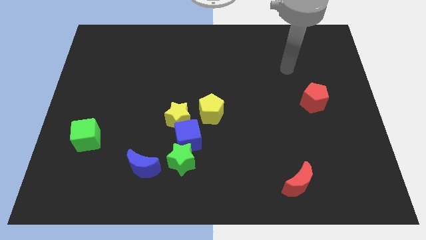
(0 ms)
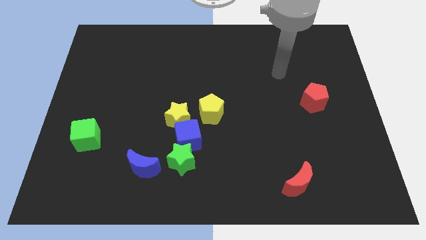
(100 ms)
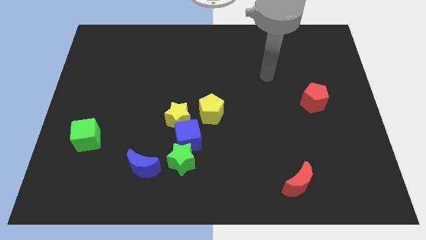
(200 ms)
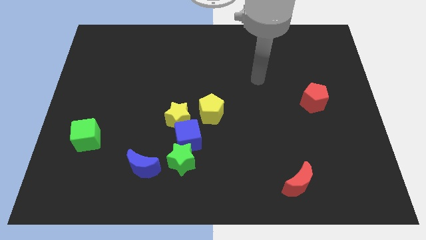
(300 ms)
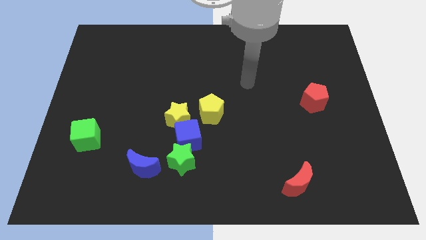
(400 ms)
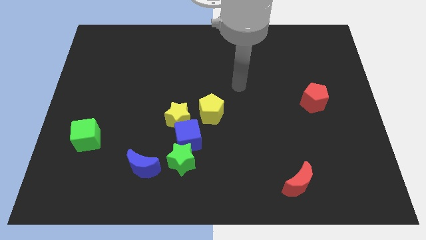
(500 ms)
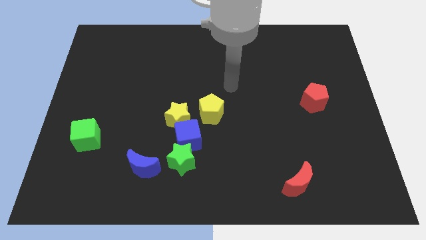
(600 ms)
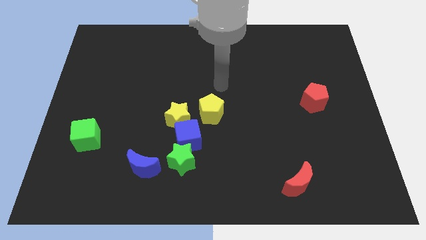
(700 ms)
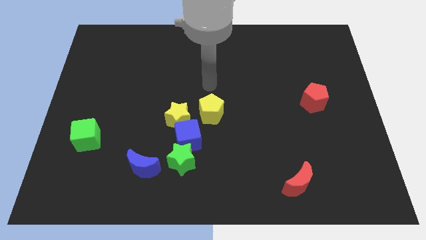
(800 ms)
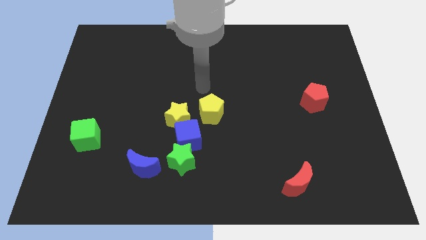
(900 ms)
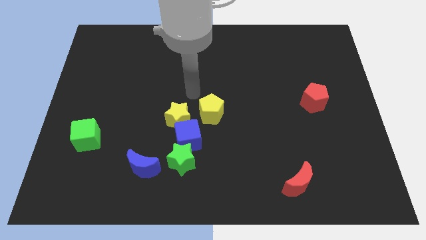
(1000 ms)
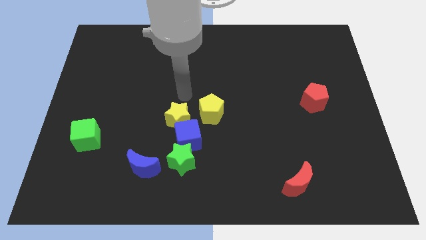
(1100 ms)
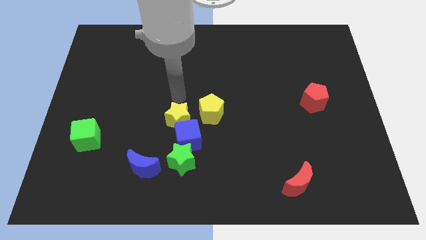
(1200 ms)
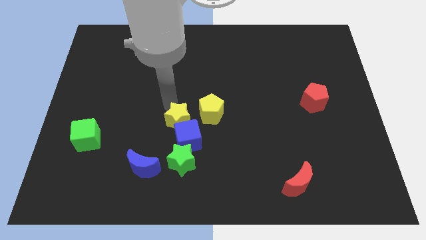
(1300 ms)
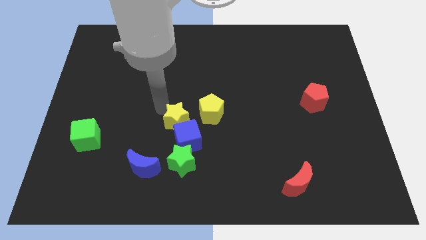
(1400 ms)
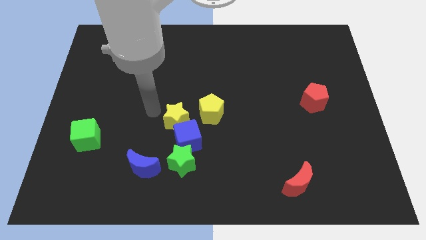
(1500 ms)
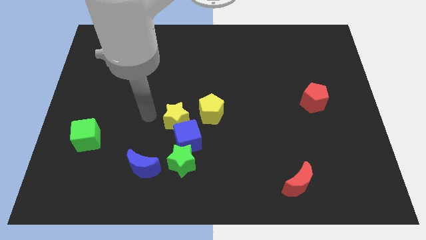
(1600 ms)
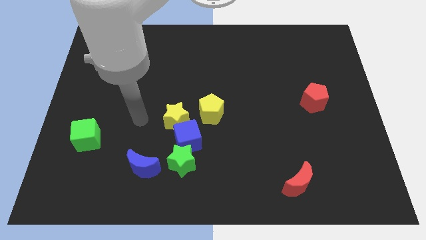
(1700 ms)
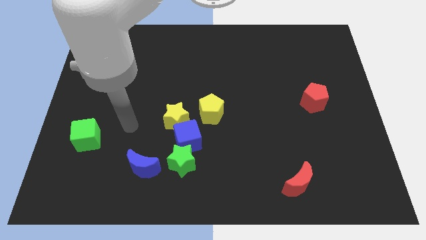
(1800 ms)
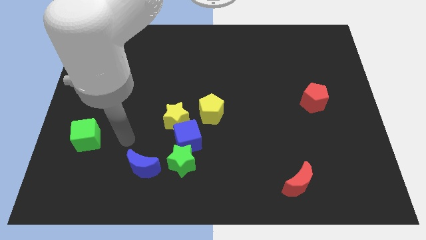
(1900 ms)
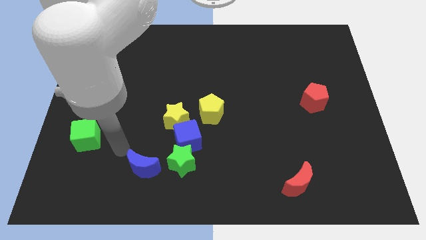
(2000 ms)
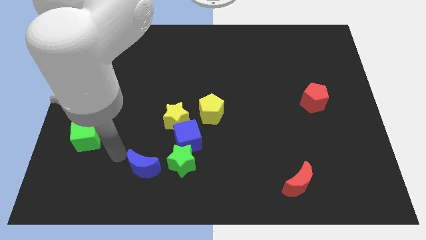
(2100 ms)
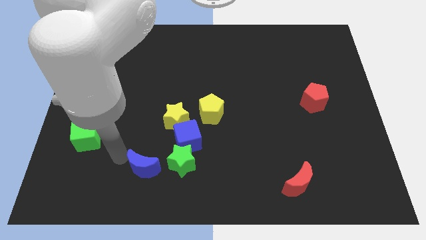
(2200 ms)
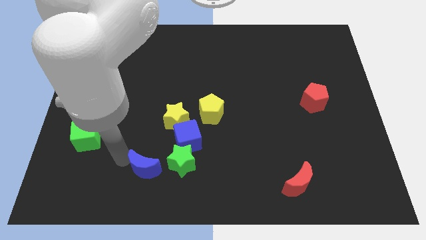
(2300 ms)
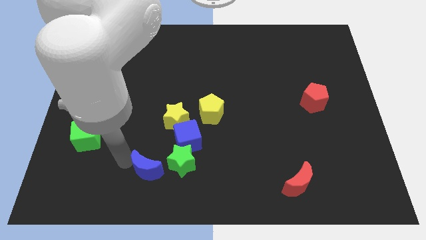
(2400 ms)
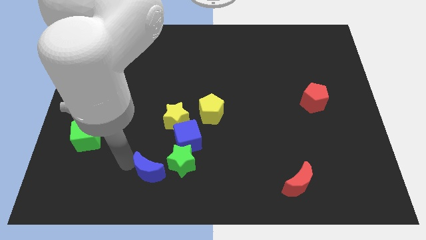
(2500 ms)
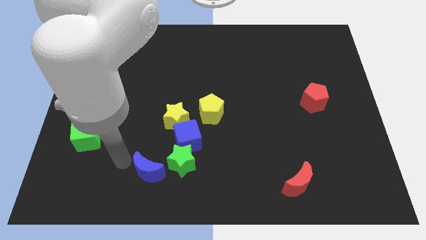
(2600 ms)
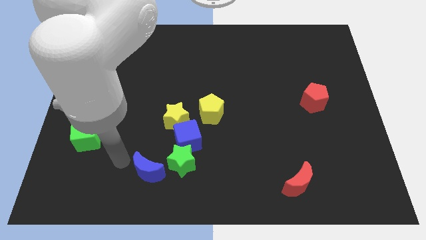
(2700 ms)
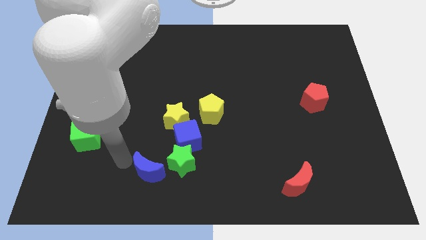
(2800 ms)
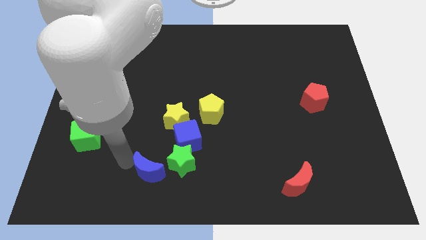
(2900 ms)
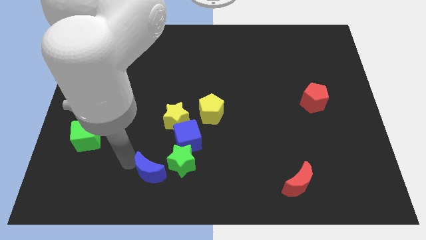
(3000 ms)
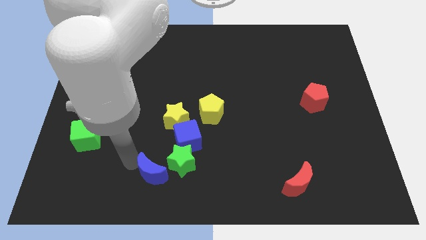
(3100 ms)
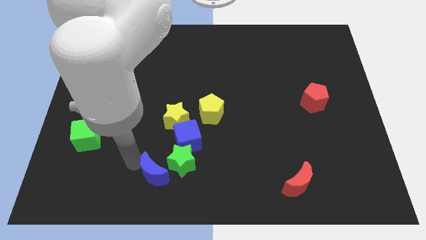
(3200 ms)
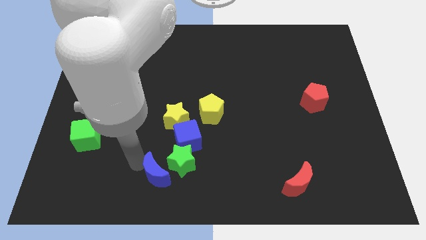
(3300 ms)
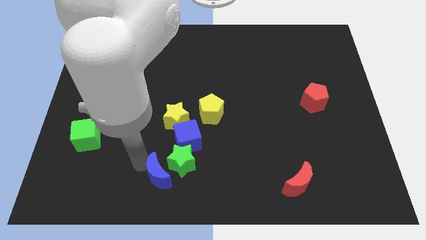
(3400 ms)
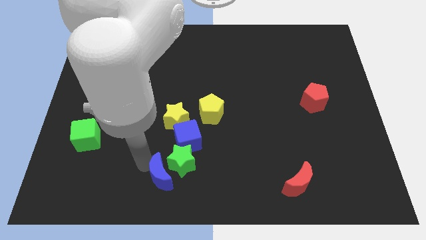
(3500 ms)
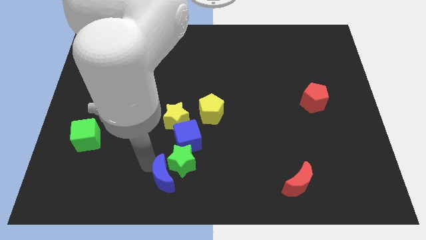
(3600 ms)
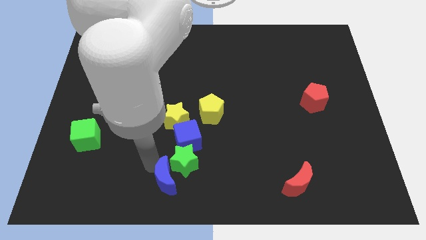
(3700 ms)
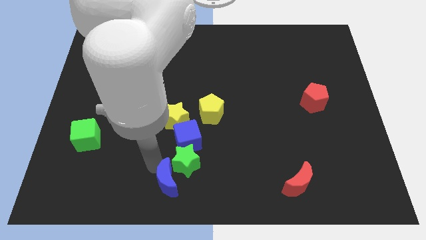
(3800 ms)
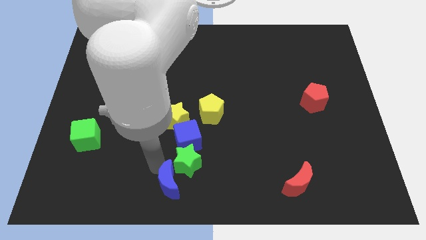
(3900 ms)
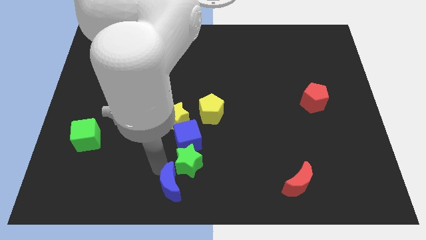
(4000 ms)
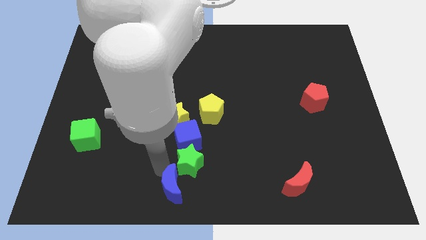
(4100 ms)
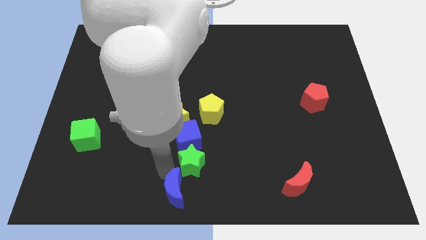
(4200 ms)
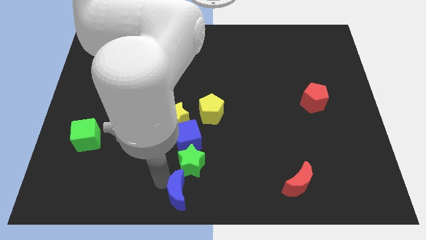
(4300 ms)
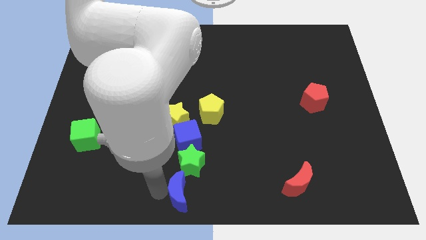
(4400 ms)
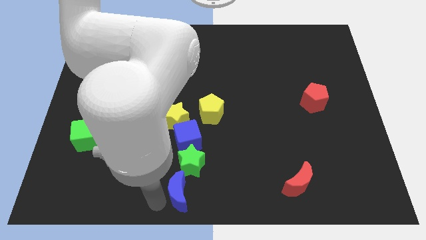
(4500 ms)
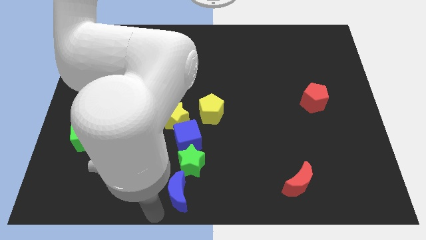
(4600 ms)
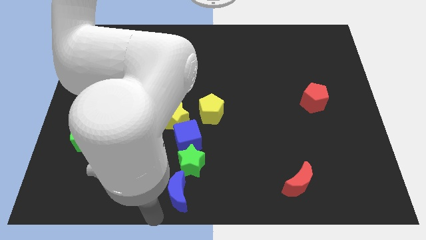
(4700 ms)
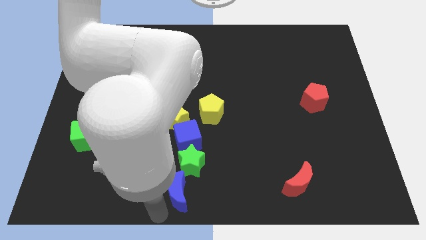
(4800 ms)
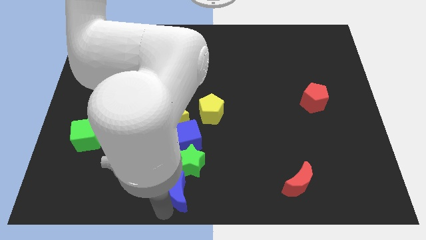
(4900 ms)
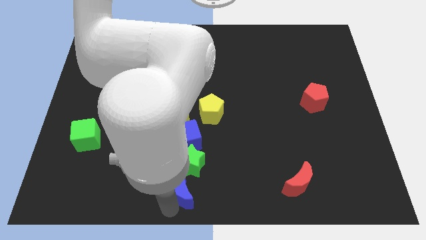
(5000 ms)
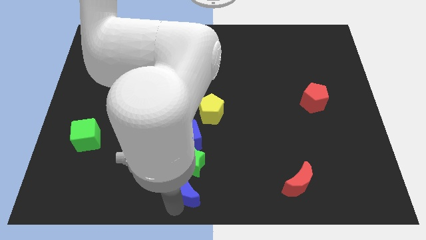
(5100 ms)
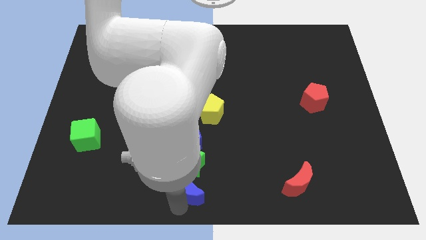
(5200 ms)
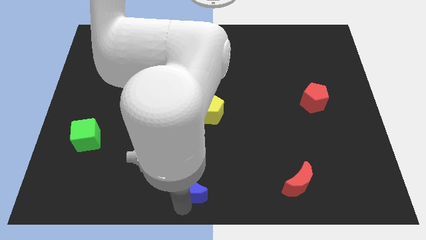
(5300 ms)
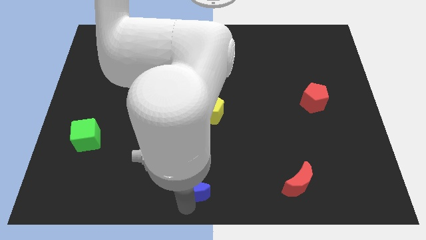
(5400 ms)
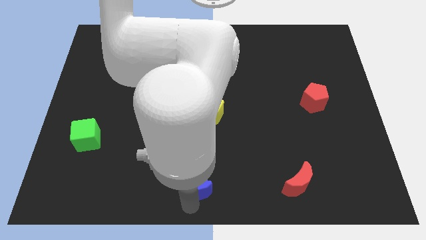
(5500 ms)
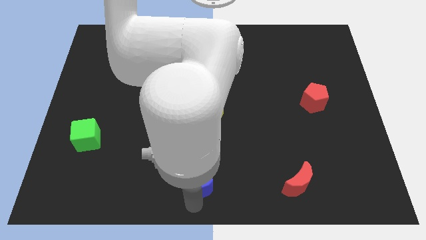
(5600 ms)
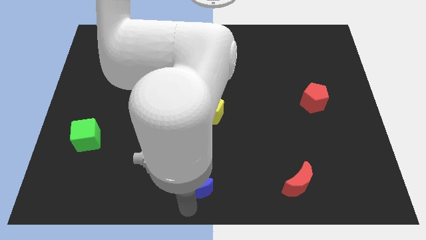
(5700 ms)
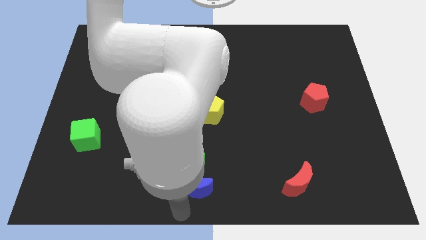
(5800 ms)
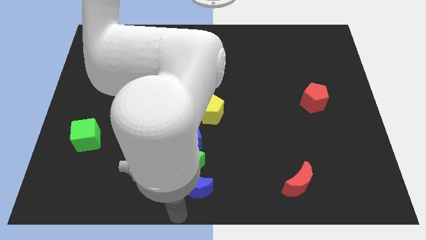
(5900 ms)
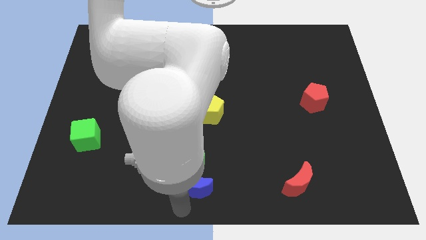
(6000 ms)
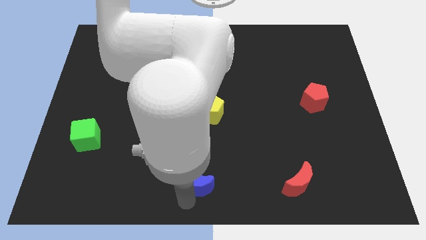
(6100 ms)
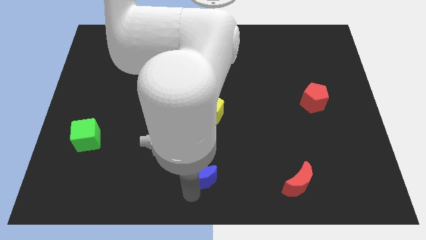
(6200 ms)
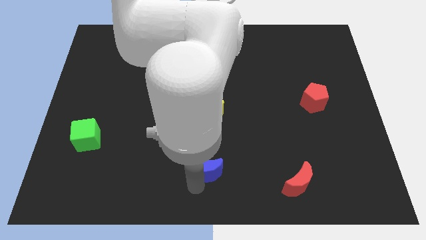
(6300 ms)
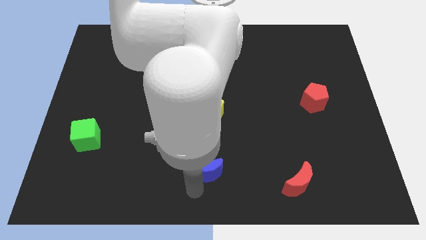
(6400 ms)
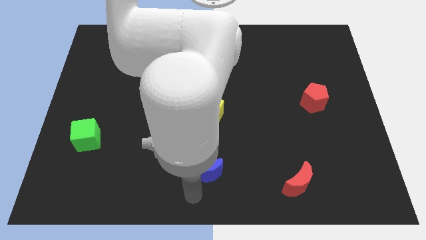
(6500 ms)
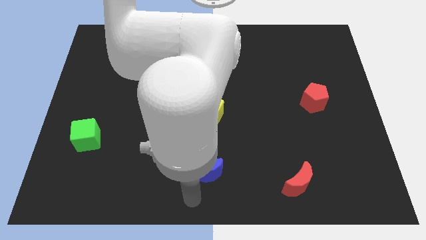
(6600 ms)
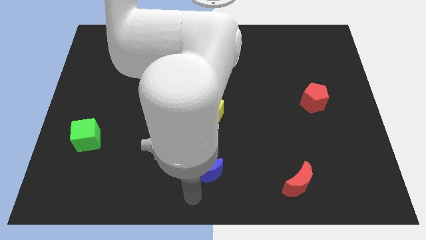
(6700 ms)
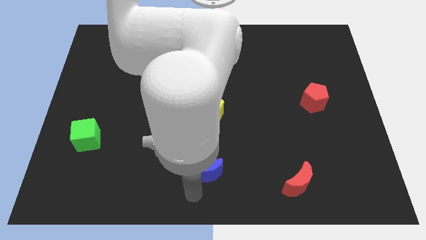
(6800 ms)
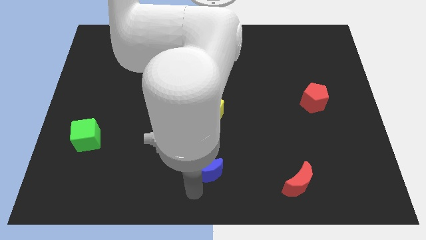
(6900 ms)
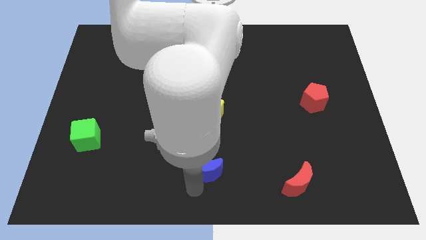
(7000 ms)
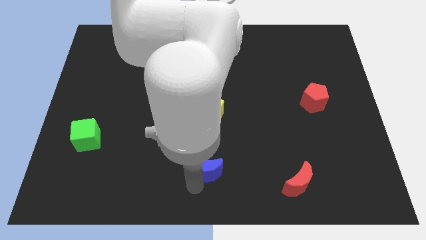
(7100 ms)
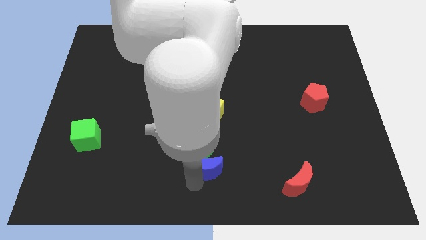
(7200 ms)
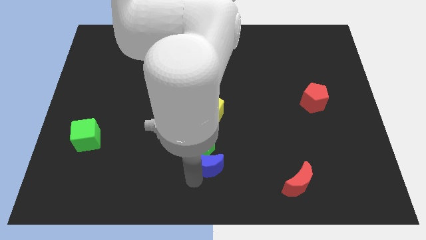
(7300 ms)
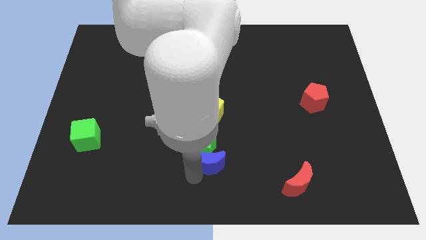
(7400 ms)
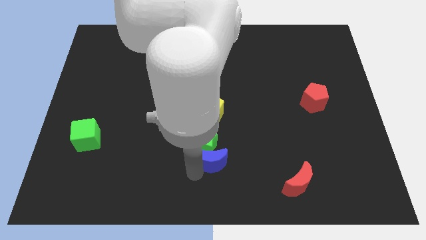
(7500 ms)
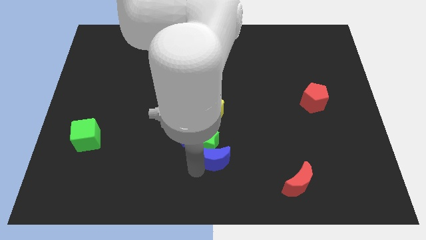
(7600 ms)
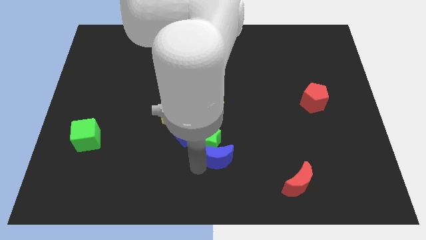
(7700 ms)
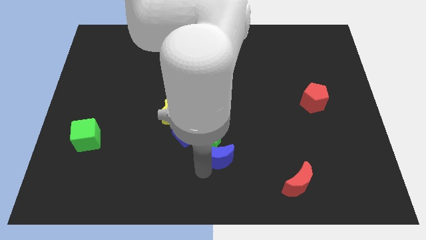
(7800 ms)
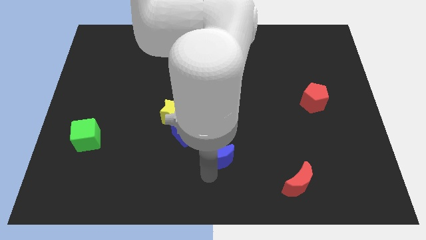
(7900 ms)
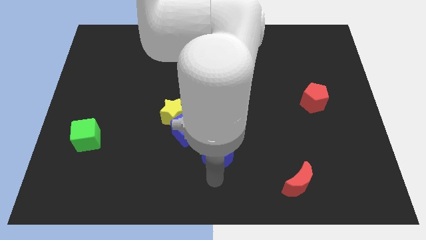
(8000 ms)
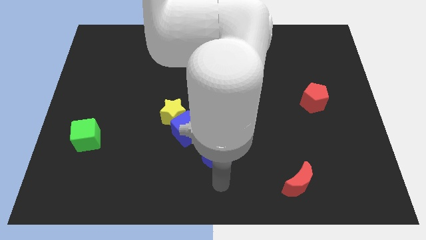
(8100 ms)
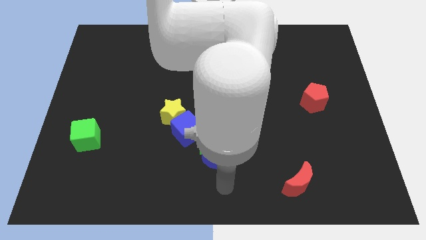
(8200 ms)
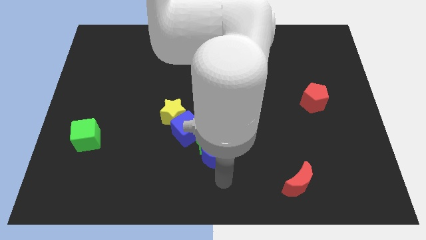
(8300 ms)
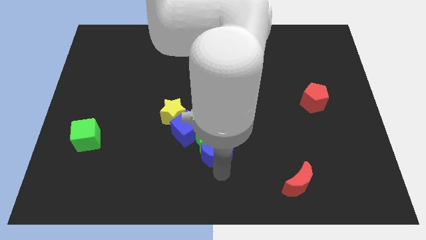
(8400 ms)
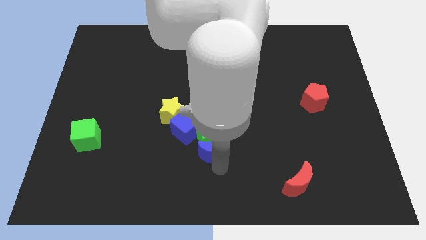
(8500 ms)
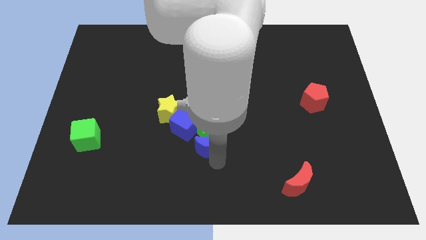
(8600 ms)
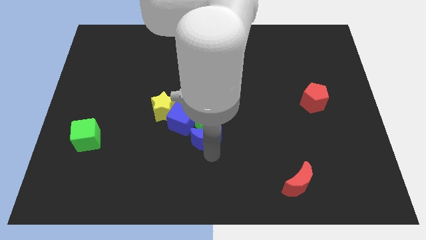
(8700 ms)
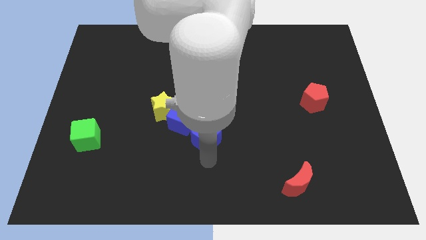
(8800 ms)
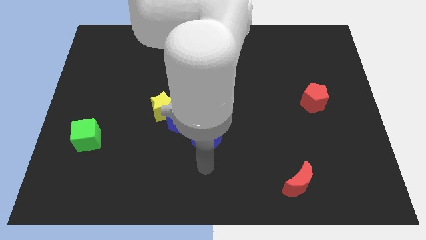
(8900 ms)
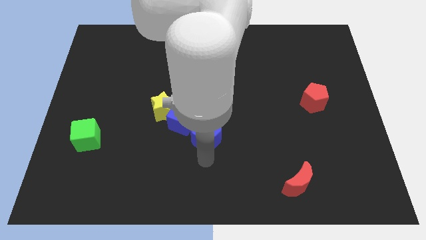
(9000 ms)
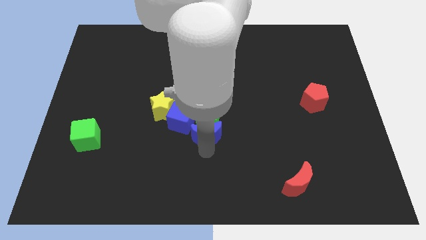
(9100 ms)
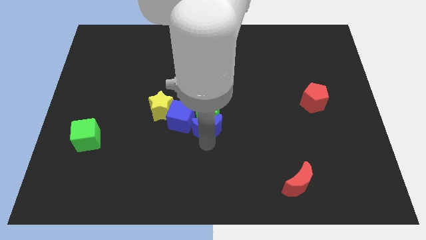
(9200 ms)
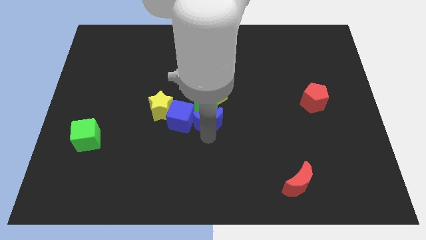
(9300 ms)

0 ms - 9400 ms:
put the blue moon to the right side of the yellow star
